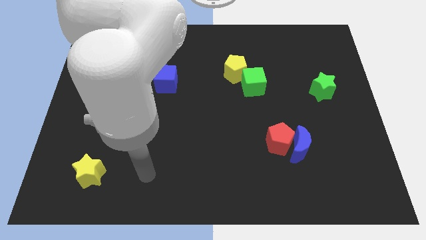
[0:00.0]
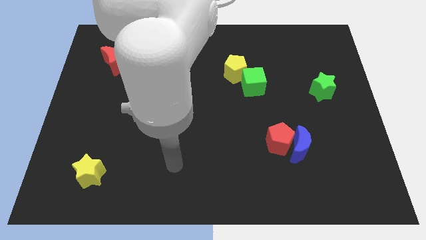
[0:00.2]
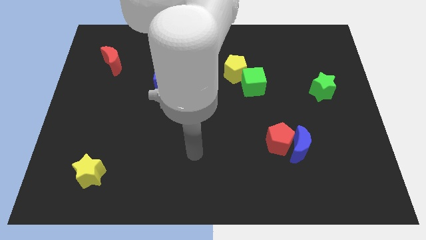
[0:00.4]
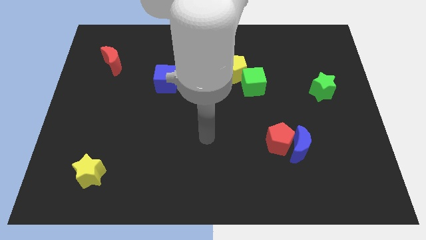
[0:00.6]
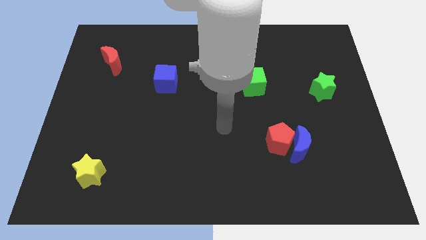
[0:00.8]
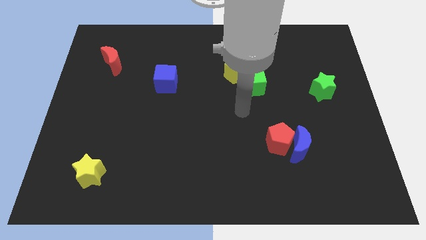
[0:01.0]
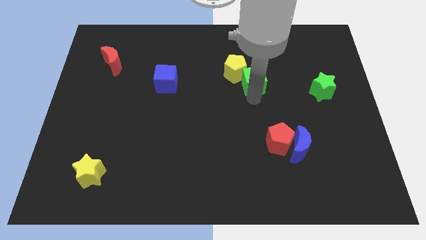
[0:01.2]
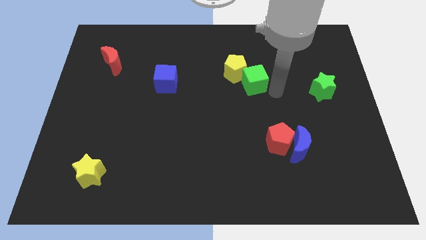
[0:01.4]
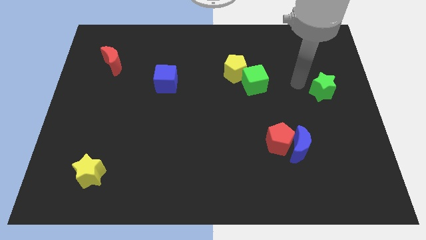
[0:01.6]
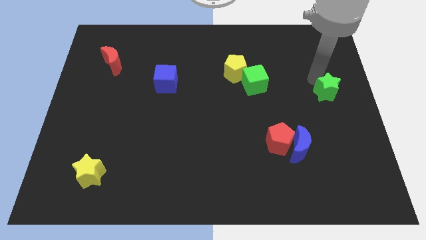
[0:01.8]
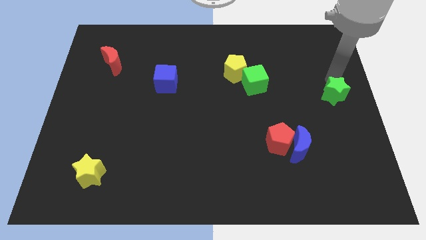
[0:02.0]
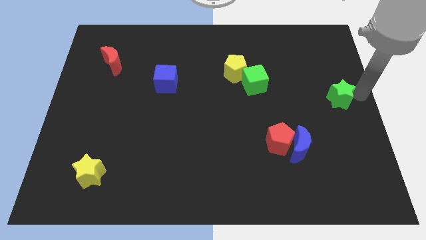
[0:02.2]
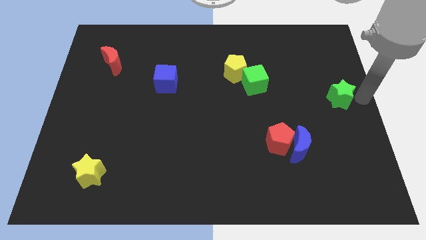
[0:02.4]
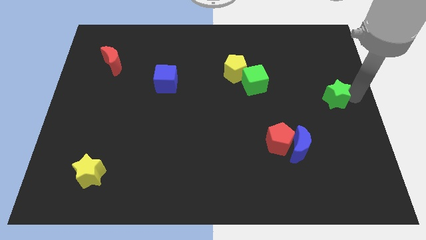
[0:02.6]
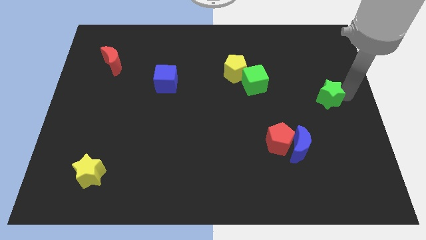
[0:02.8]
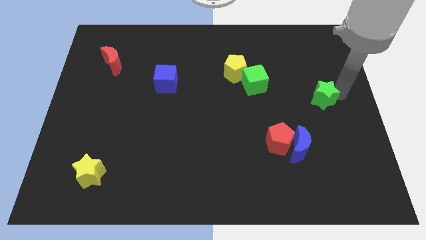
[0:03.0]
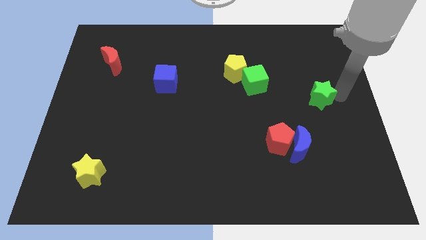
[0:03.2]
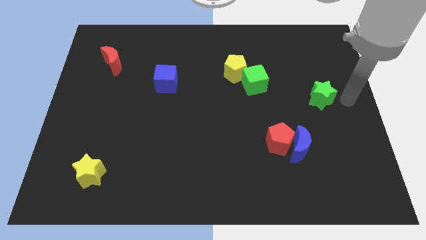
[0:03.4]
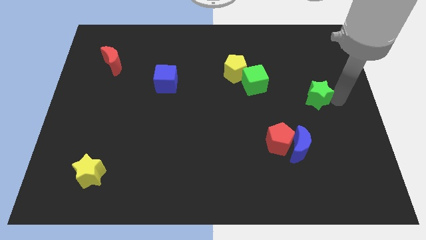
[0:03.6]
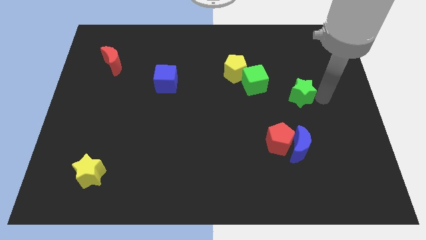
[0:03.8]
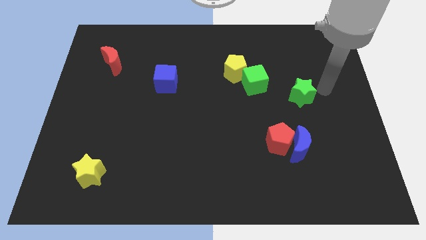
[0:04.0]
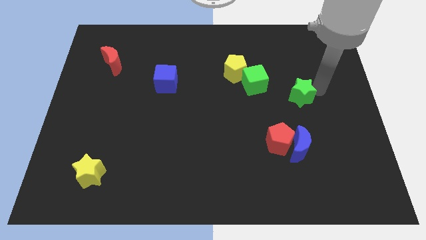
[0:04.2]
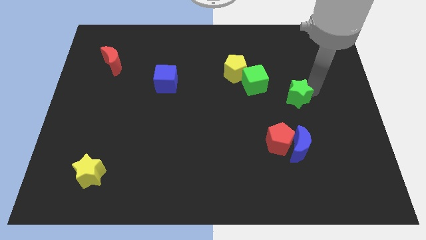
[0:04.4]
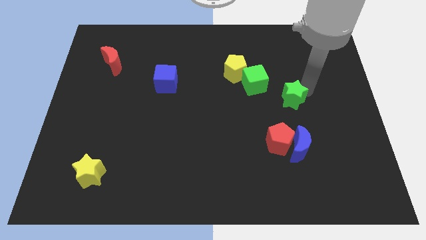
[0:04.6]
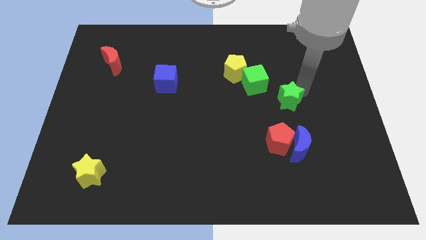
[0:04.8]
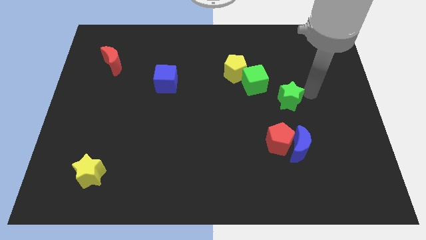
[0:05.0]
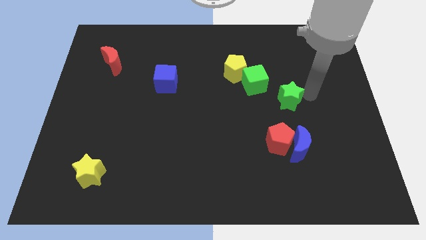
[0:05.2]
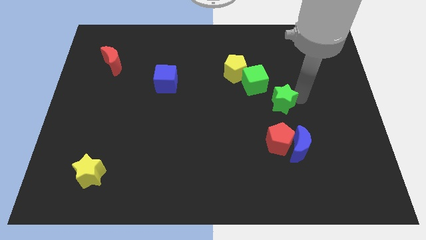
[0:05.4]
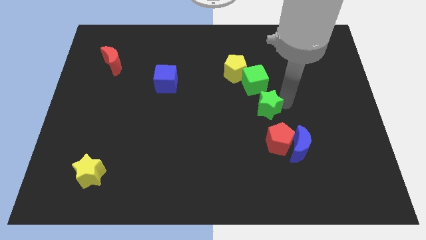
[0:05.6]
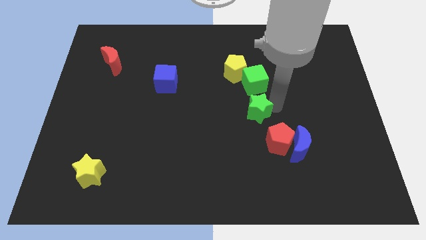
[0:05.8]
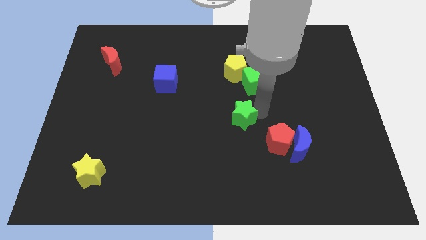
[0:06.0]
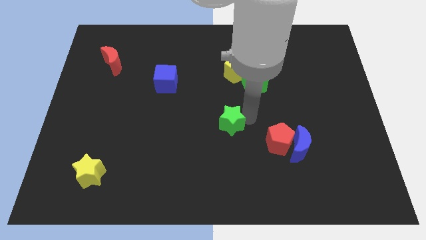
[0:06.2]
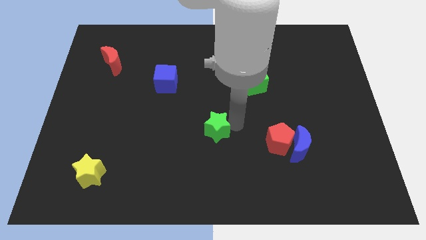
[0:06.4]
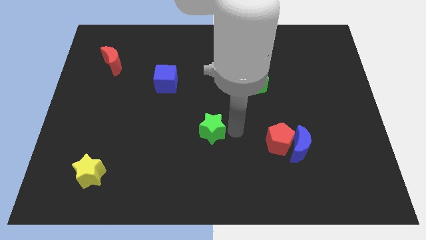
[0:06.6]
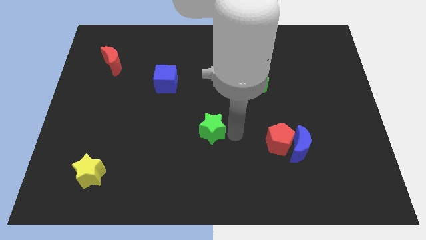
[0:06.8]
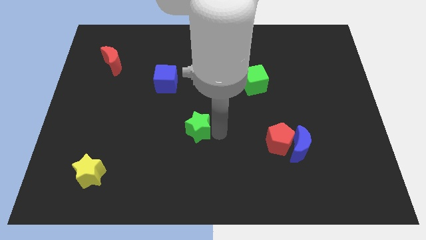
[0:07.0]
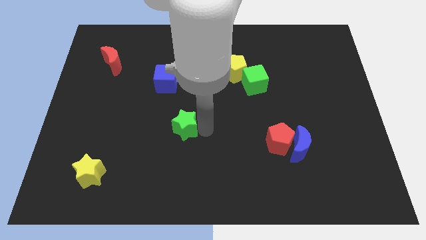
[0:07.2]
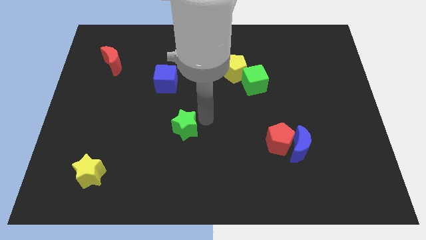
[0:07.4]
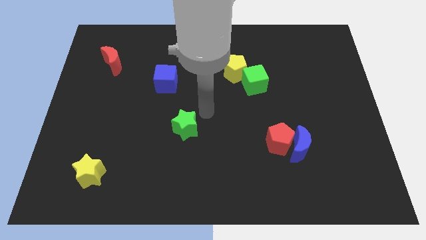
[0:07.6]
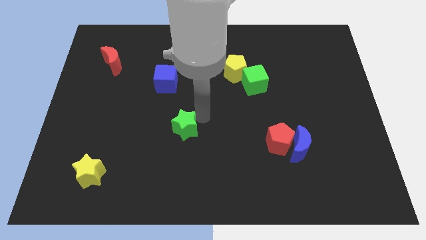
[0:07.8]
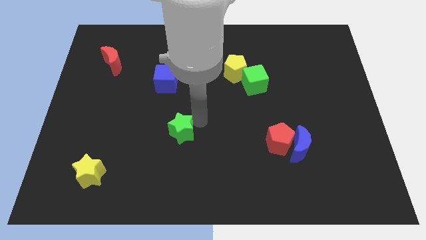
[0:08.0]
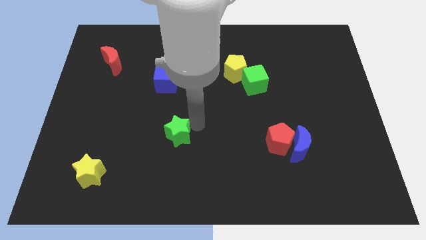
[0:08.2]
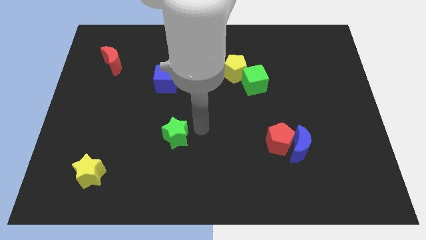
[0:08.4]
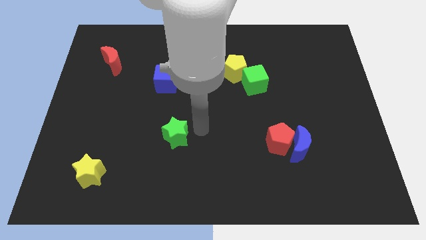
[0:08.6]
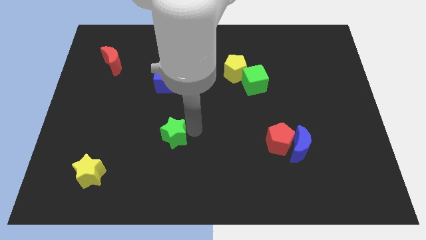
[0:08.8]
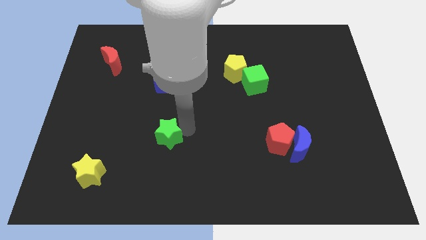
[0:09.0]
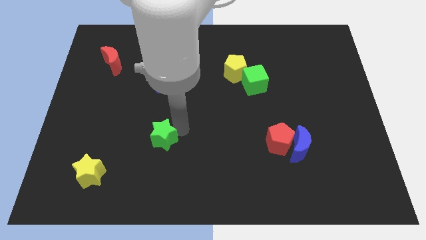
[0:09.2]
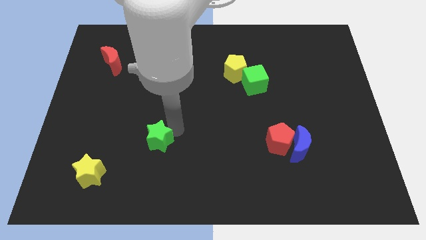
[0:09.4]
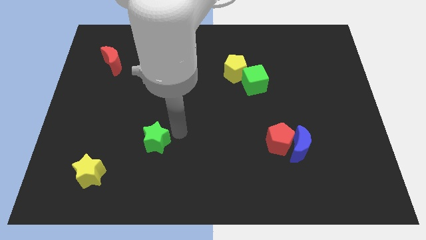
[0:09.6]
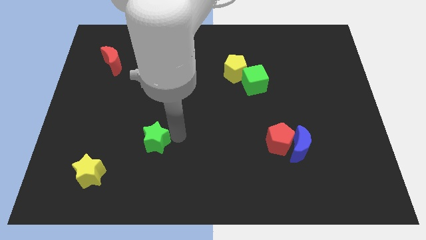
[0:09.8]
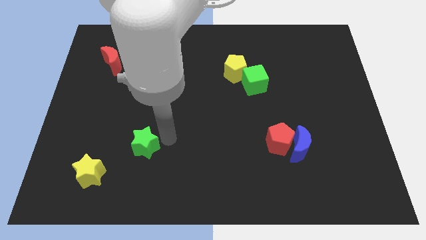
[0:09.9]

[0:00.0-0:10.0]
put the green star to the top right of the yellow star

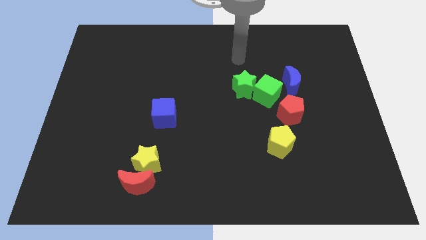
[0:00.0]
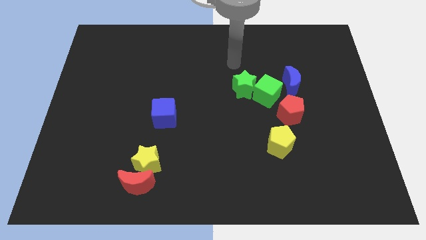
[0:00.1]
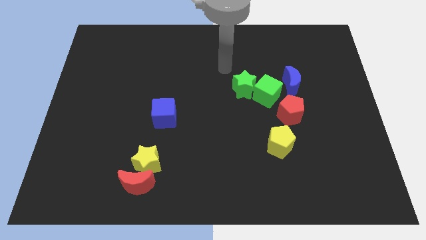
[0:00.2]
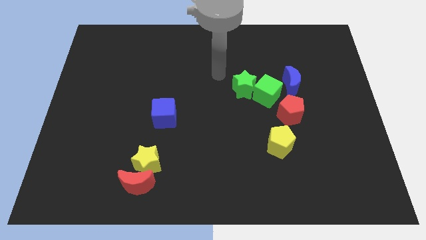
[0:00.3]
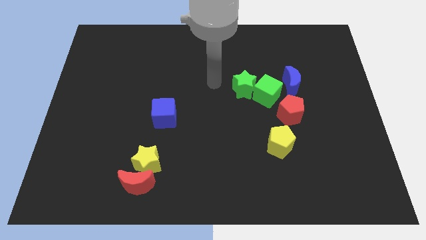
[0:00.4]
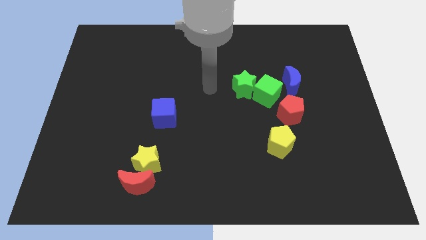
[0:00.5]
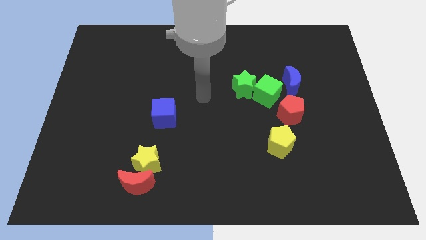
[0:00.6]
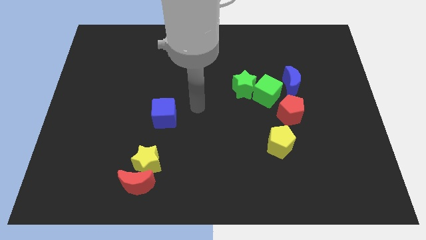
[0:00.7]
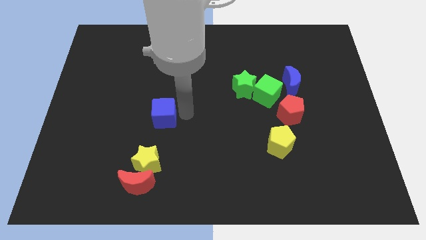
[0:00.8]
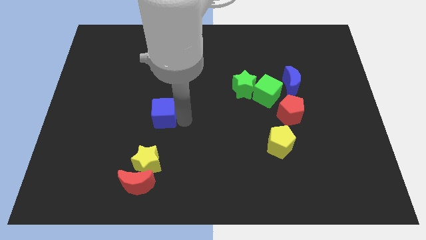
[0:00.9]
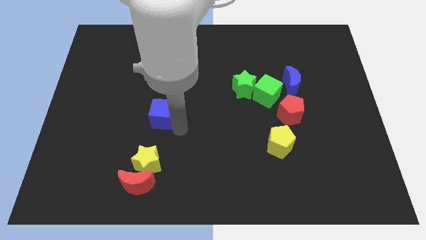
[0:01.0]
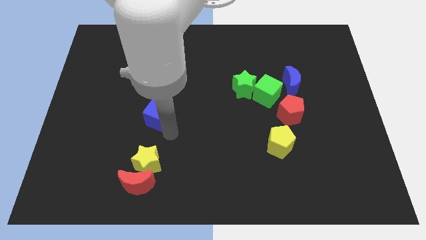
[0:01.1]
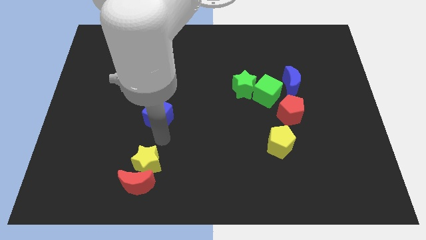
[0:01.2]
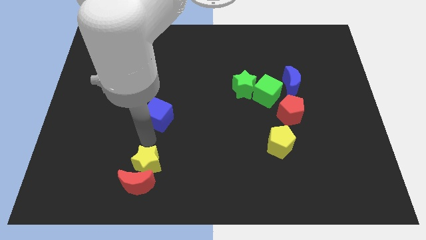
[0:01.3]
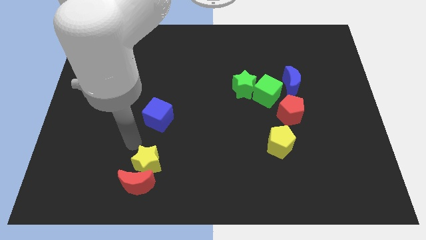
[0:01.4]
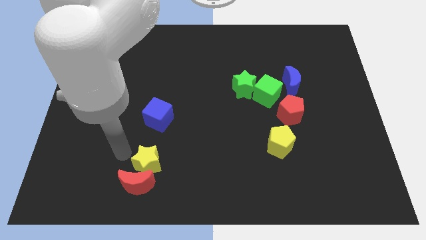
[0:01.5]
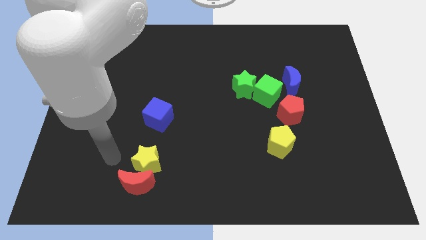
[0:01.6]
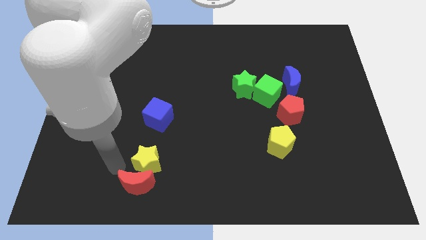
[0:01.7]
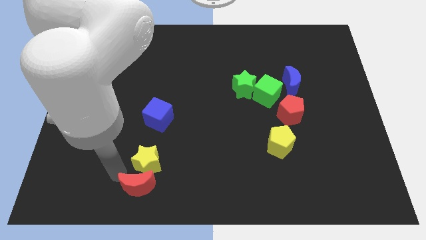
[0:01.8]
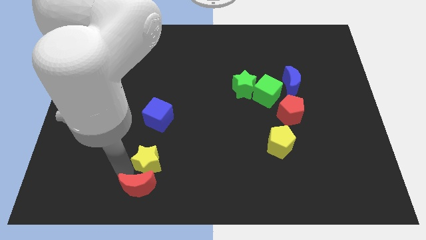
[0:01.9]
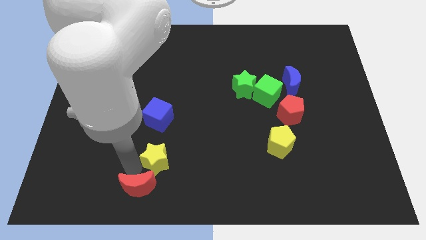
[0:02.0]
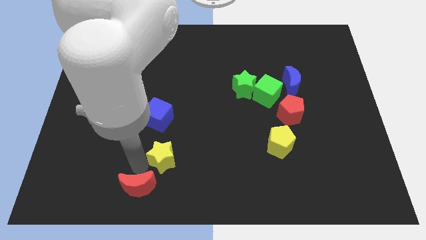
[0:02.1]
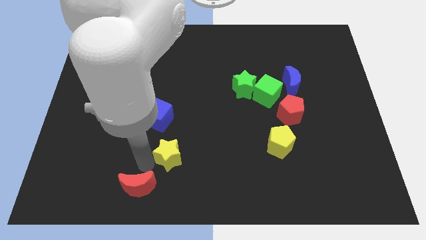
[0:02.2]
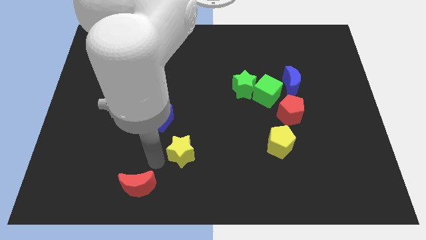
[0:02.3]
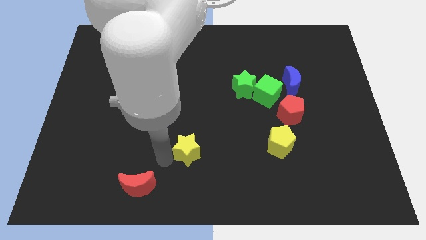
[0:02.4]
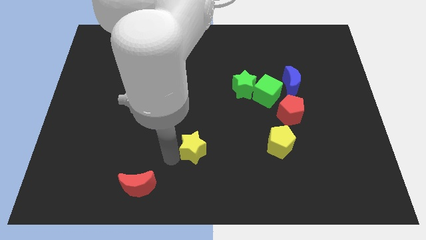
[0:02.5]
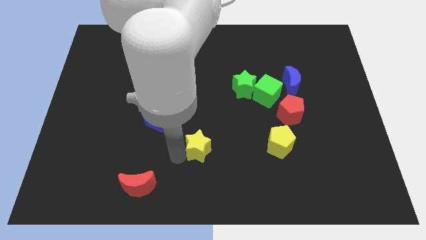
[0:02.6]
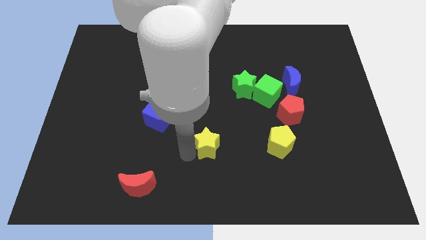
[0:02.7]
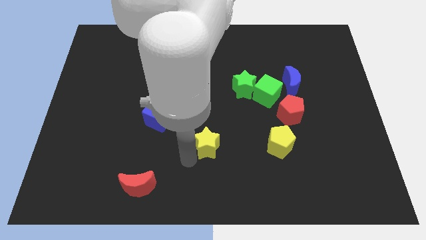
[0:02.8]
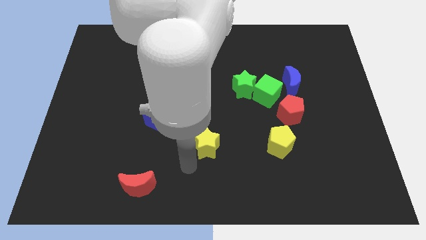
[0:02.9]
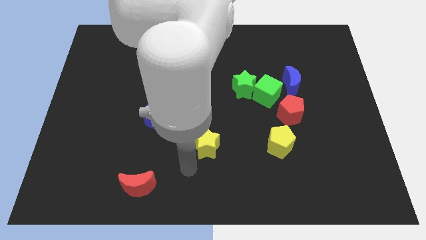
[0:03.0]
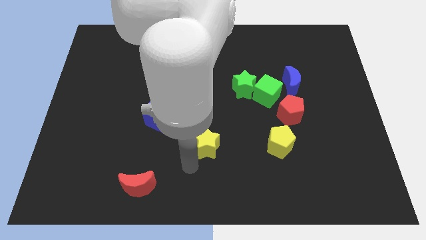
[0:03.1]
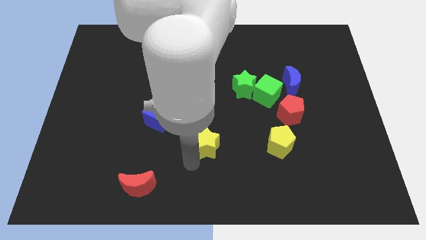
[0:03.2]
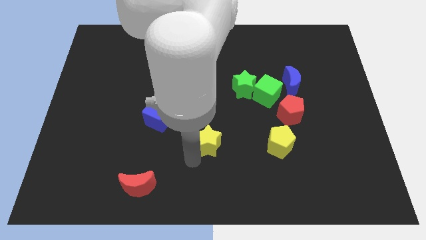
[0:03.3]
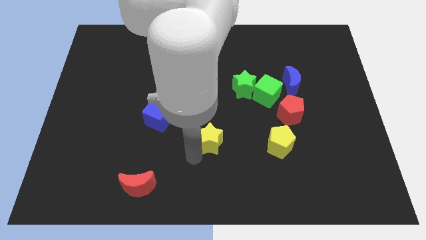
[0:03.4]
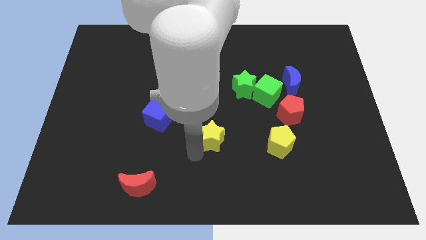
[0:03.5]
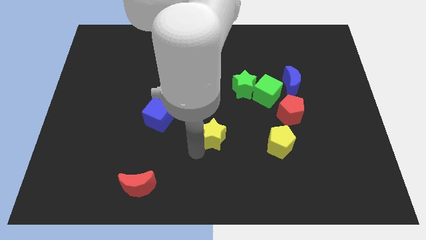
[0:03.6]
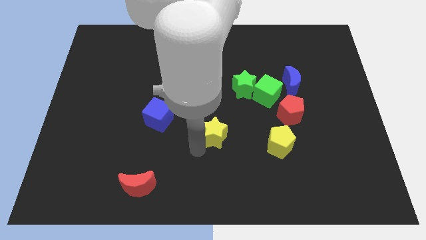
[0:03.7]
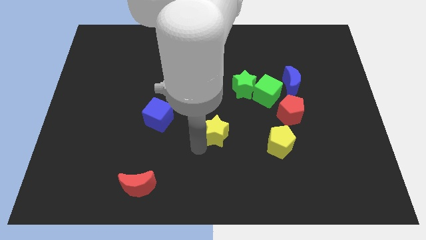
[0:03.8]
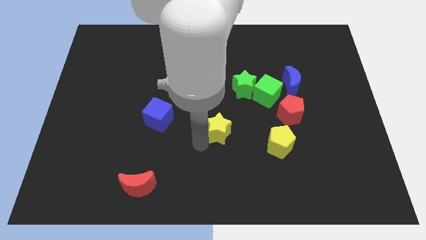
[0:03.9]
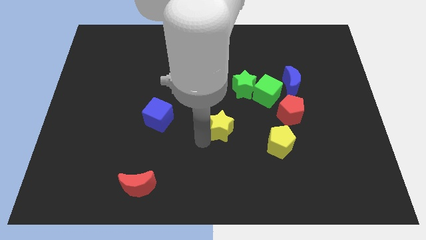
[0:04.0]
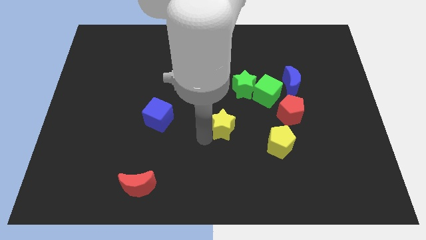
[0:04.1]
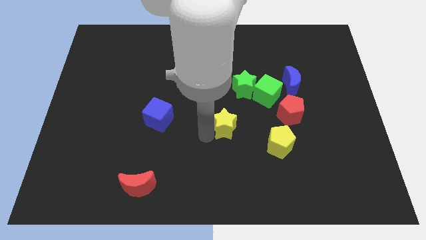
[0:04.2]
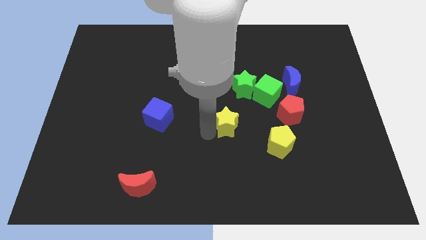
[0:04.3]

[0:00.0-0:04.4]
slide the yellow star left of the red pentagon
